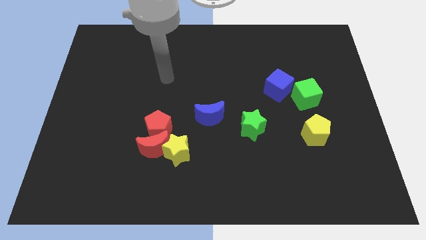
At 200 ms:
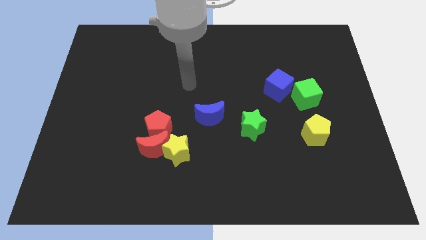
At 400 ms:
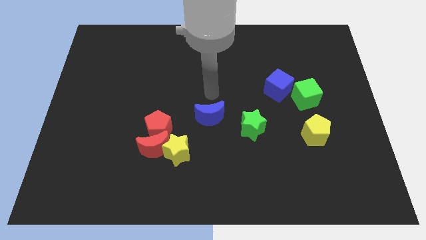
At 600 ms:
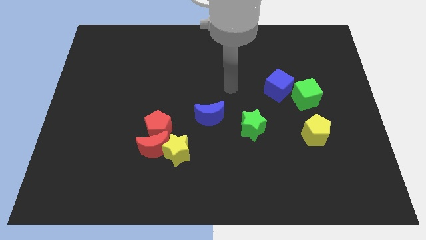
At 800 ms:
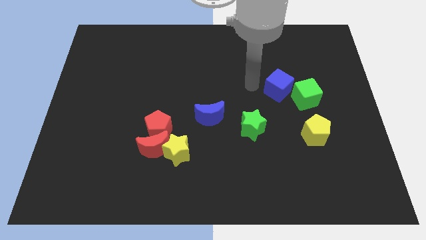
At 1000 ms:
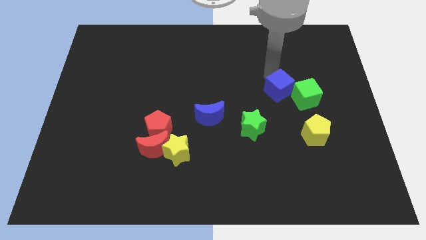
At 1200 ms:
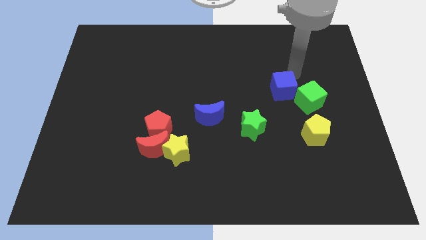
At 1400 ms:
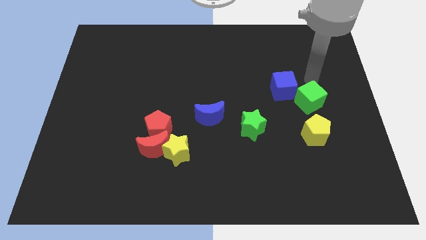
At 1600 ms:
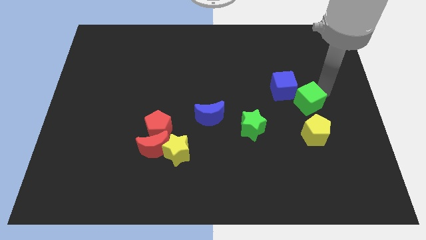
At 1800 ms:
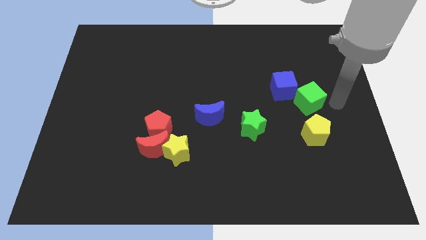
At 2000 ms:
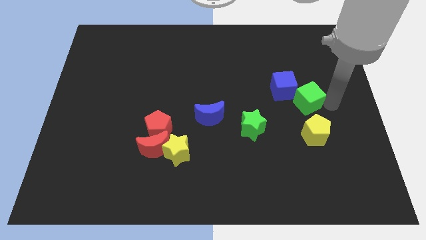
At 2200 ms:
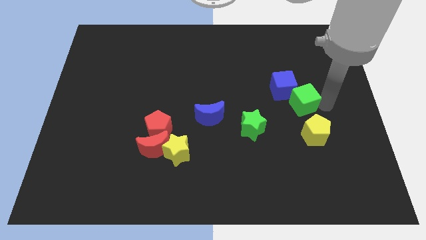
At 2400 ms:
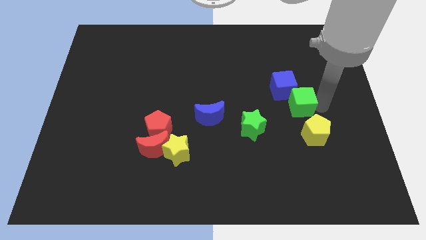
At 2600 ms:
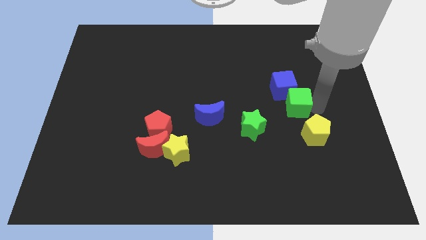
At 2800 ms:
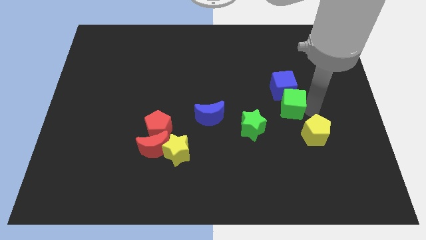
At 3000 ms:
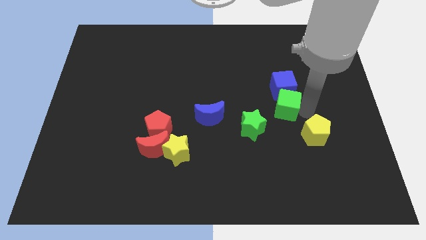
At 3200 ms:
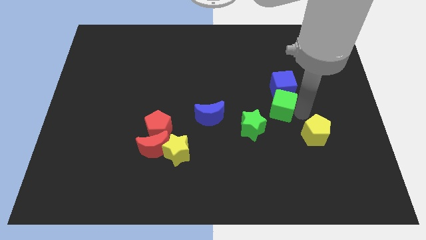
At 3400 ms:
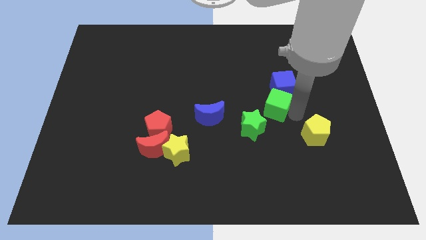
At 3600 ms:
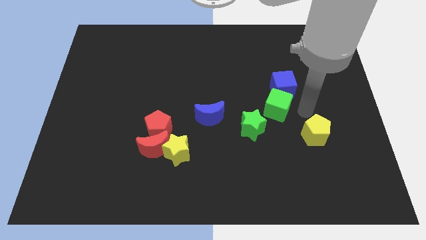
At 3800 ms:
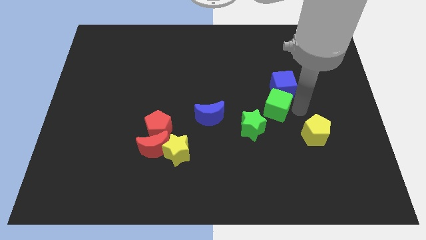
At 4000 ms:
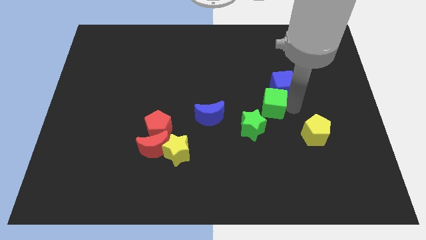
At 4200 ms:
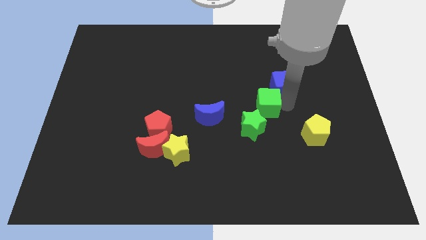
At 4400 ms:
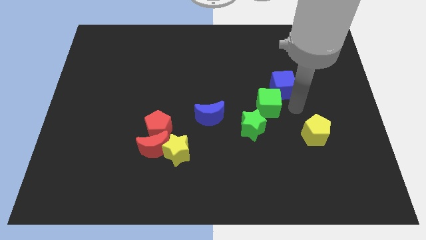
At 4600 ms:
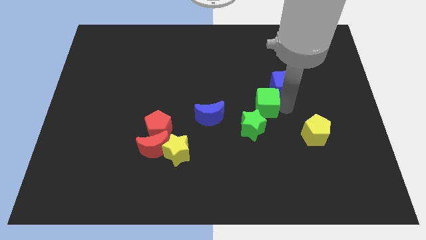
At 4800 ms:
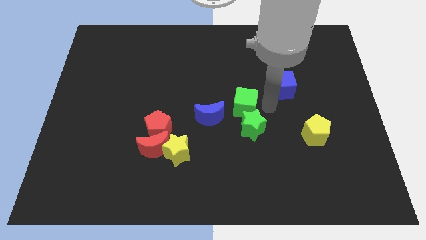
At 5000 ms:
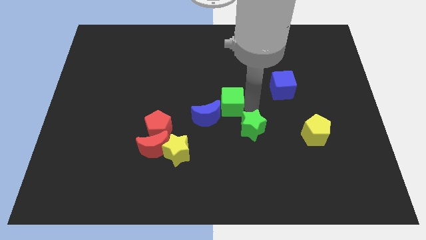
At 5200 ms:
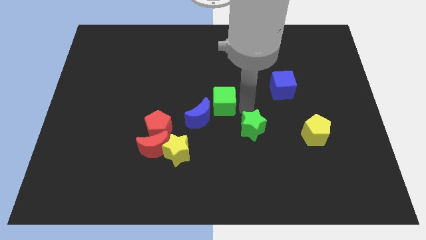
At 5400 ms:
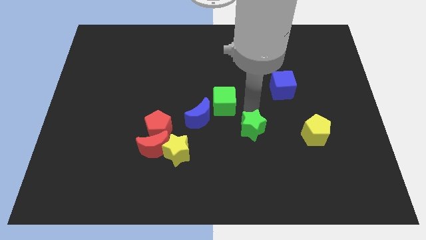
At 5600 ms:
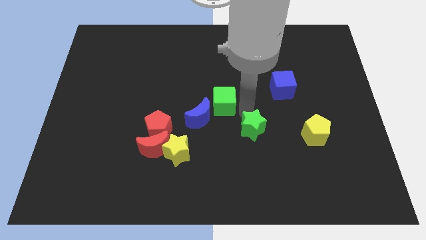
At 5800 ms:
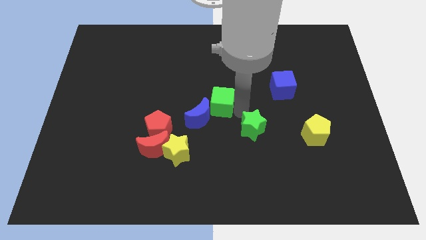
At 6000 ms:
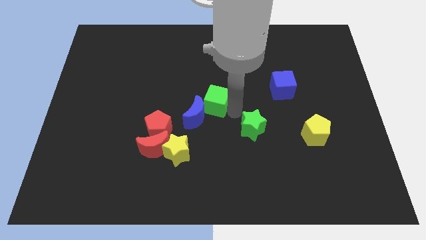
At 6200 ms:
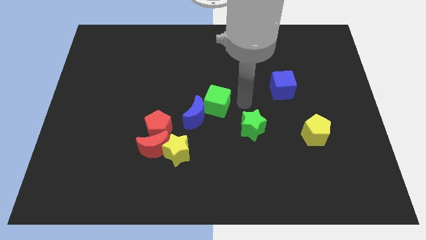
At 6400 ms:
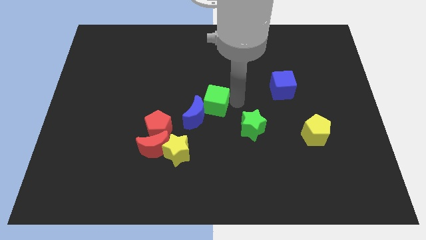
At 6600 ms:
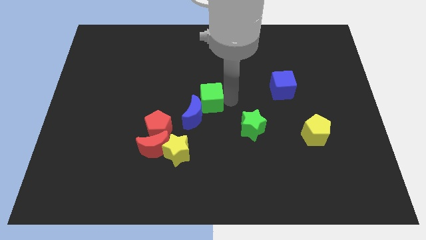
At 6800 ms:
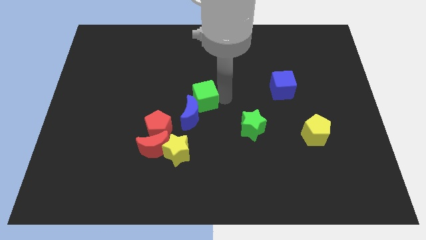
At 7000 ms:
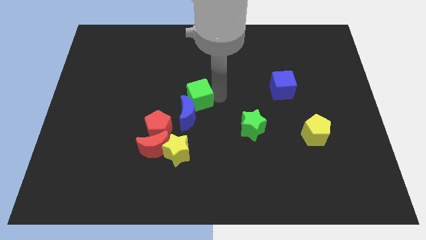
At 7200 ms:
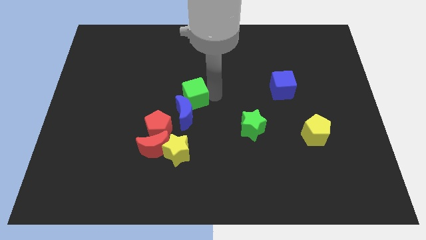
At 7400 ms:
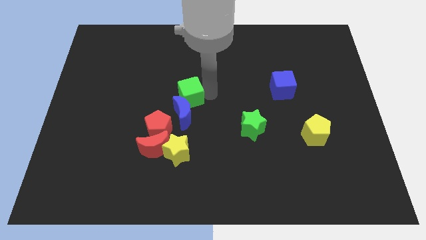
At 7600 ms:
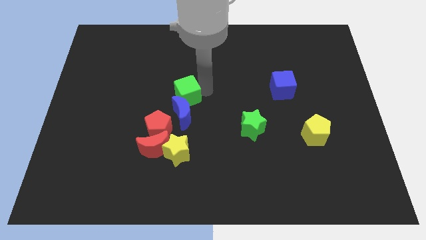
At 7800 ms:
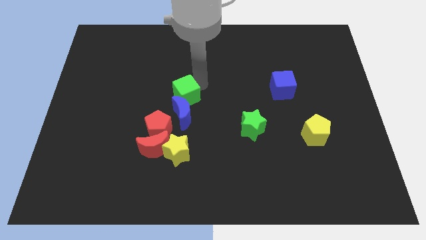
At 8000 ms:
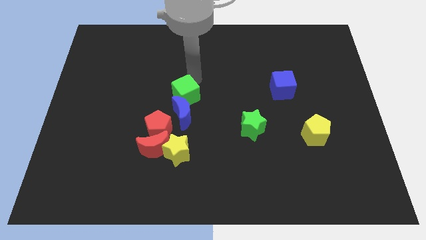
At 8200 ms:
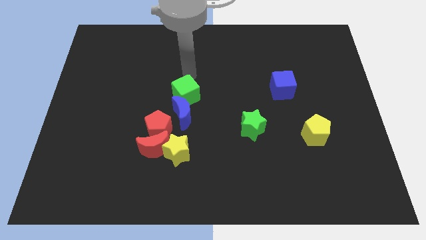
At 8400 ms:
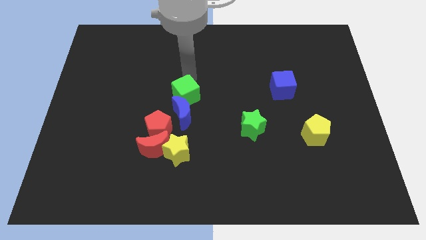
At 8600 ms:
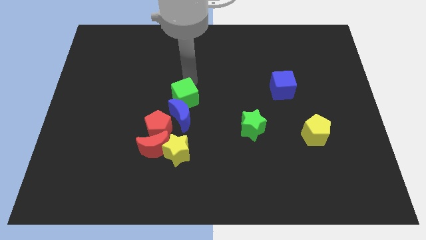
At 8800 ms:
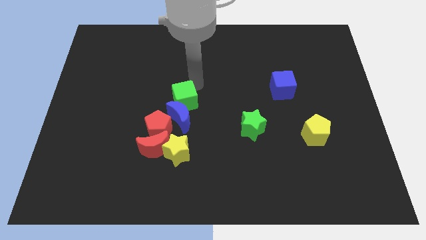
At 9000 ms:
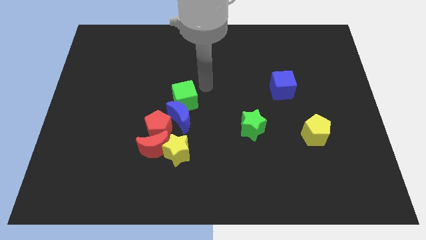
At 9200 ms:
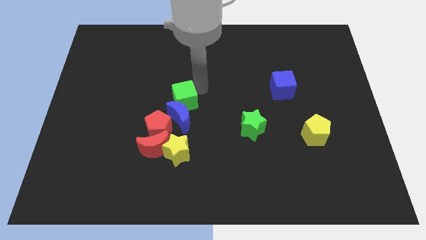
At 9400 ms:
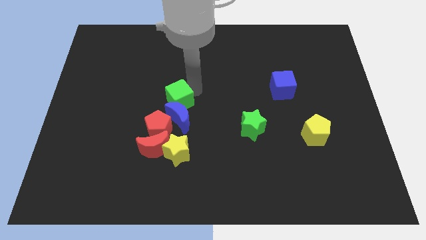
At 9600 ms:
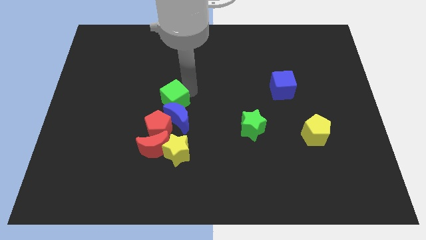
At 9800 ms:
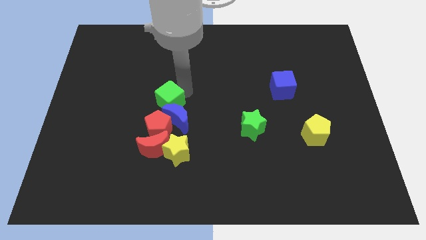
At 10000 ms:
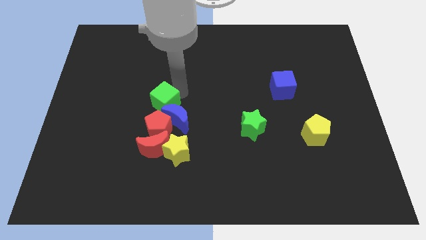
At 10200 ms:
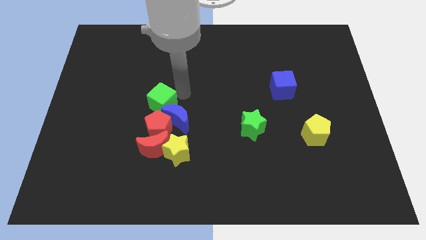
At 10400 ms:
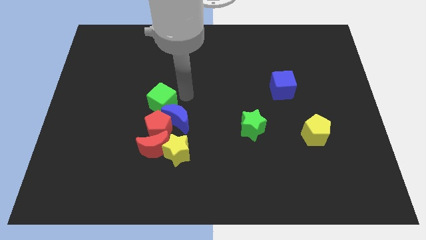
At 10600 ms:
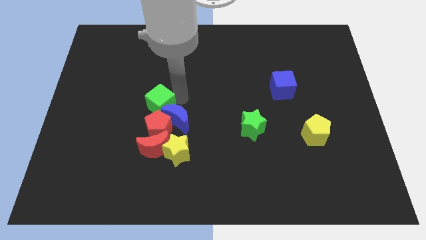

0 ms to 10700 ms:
put the green cube to the top left of the red pentagon

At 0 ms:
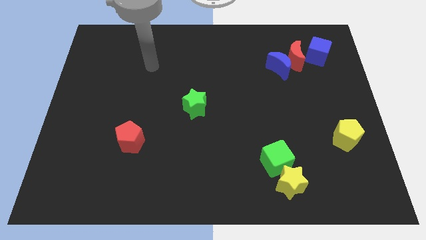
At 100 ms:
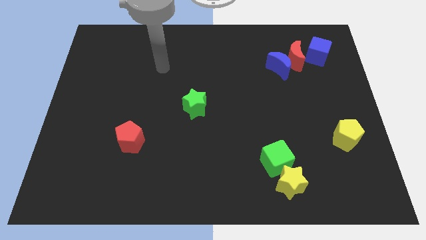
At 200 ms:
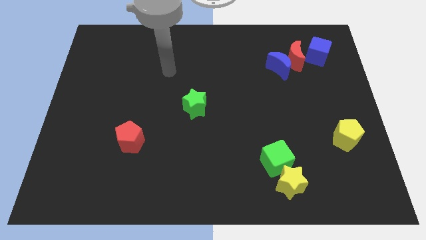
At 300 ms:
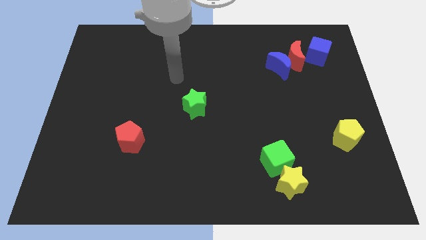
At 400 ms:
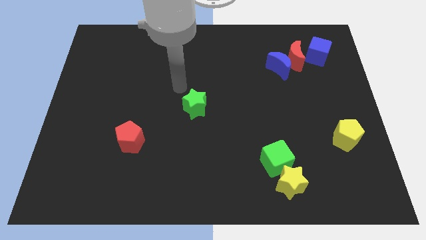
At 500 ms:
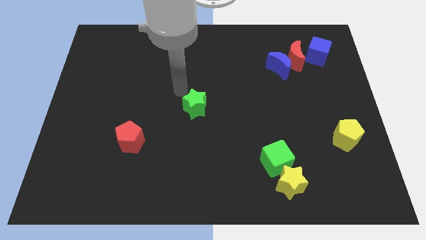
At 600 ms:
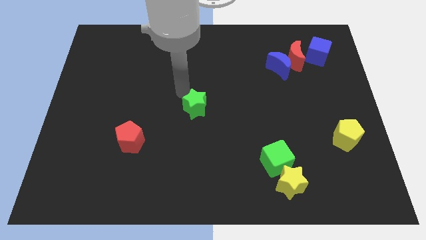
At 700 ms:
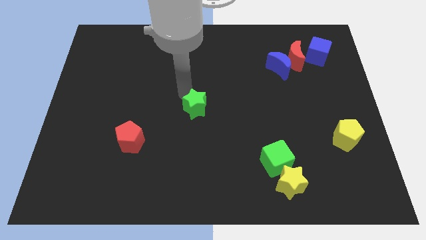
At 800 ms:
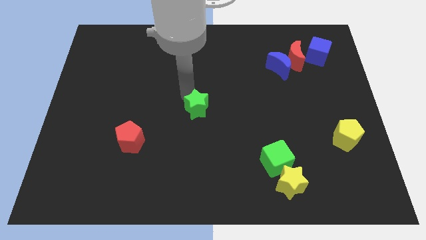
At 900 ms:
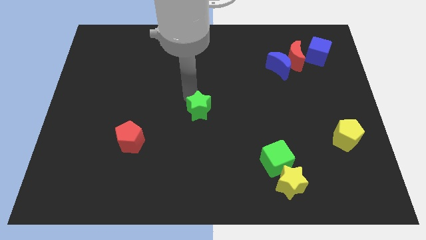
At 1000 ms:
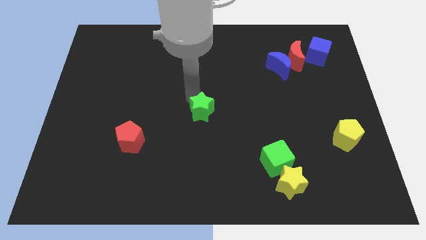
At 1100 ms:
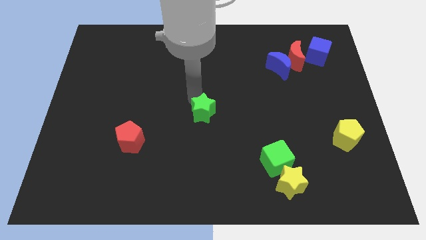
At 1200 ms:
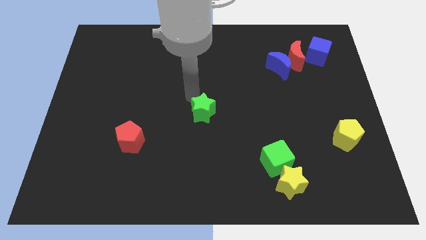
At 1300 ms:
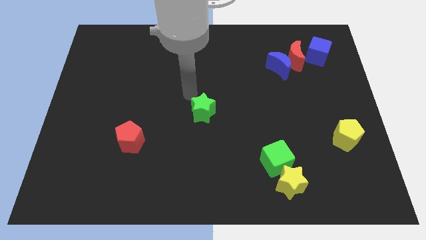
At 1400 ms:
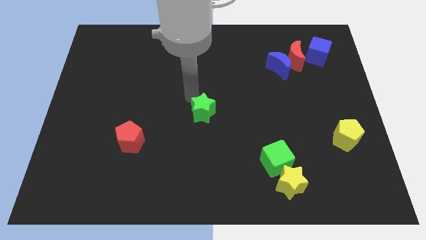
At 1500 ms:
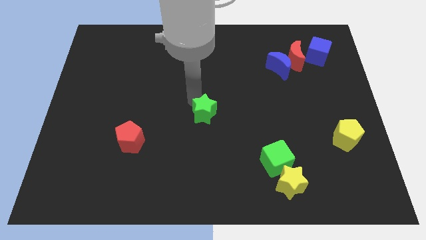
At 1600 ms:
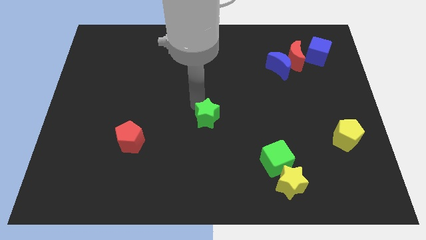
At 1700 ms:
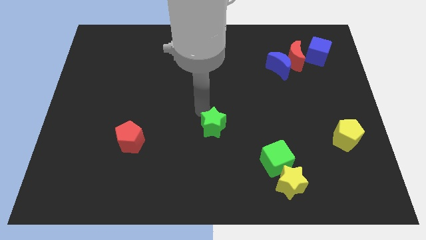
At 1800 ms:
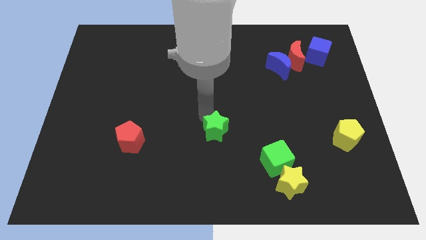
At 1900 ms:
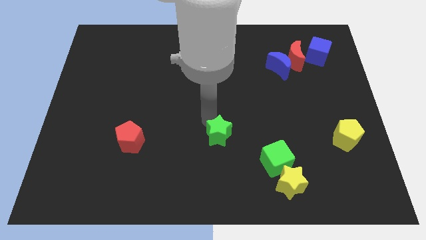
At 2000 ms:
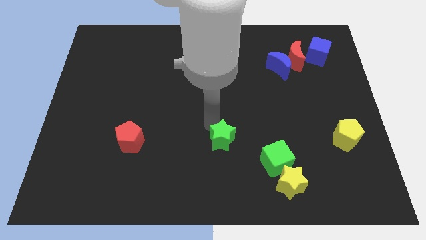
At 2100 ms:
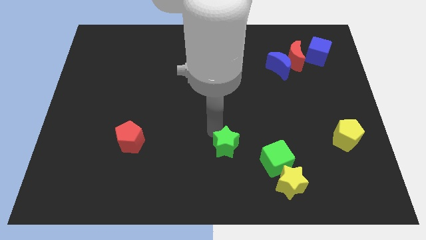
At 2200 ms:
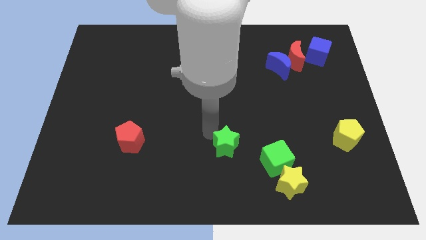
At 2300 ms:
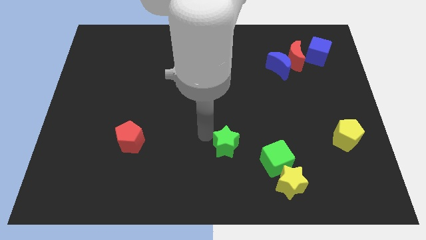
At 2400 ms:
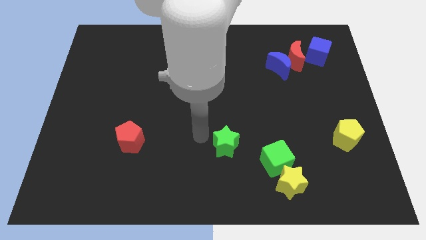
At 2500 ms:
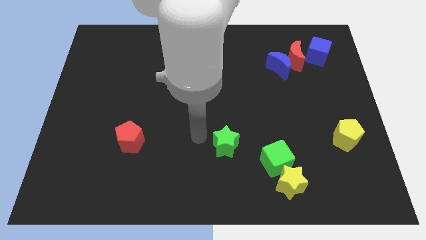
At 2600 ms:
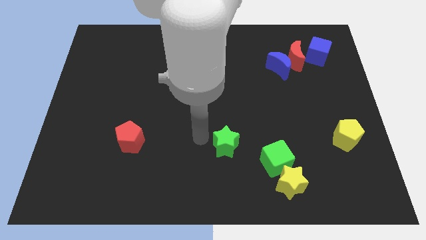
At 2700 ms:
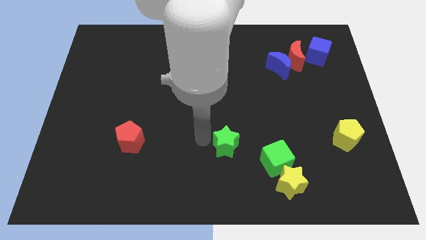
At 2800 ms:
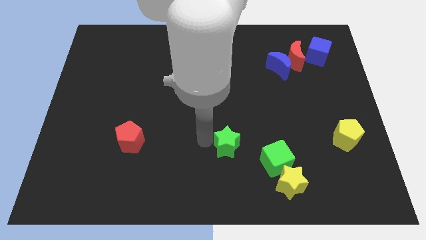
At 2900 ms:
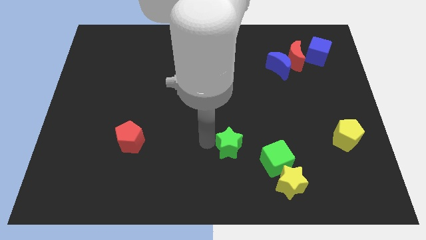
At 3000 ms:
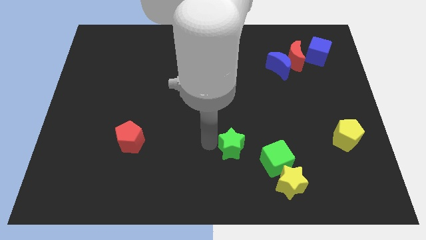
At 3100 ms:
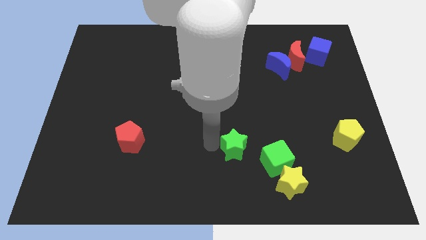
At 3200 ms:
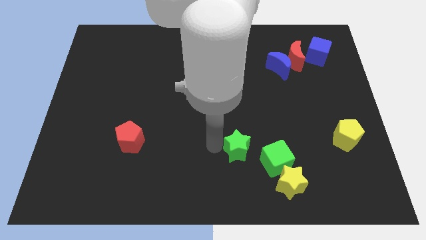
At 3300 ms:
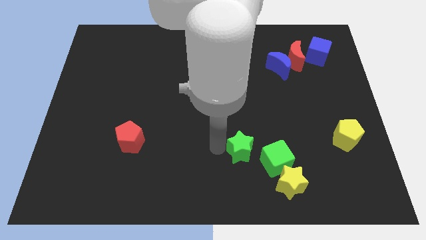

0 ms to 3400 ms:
slide the green star to the top left side of the yellow star
